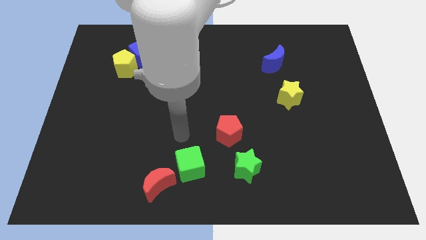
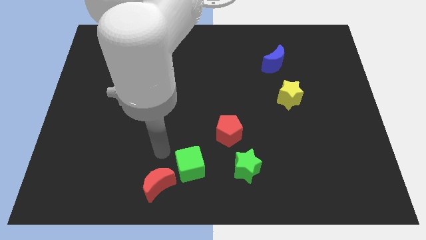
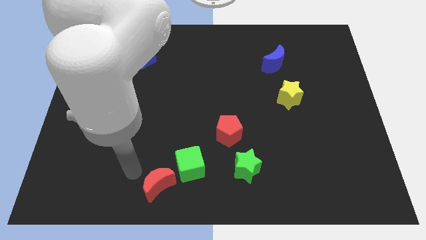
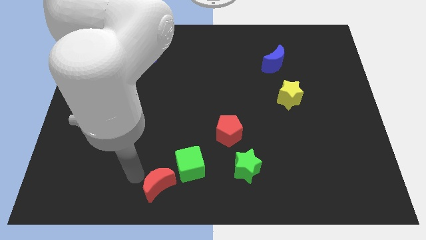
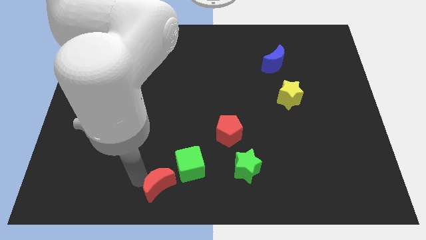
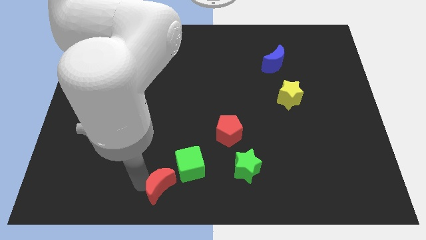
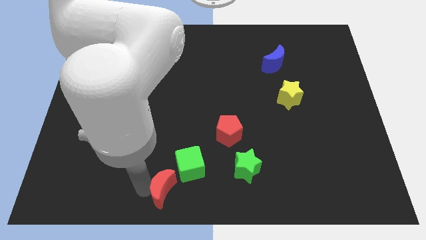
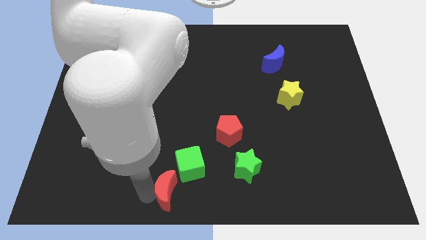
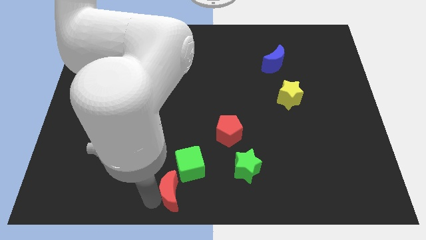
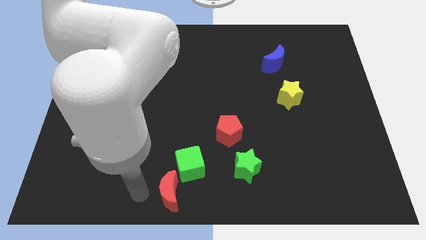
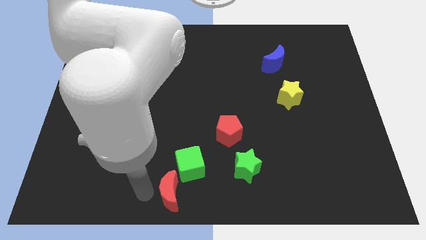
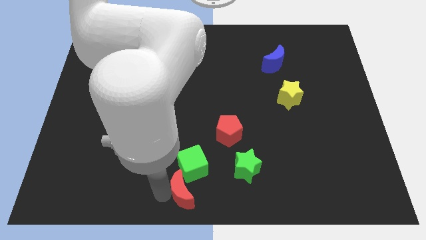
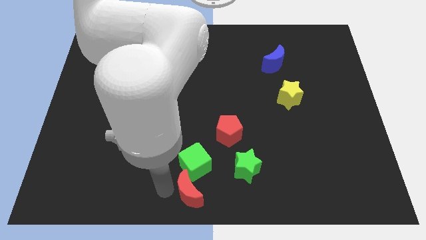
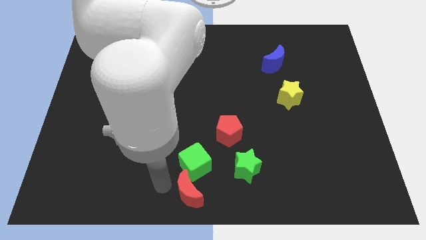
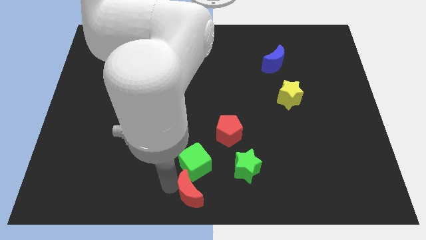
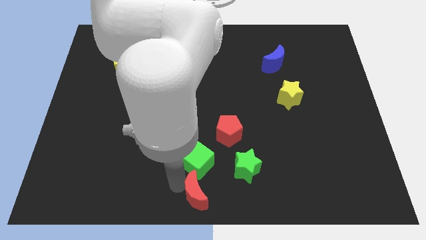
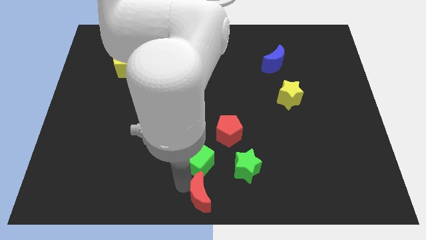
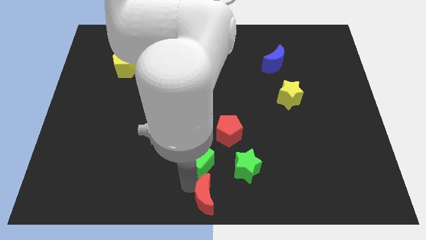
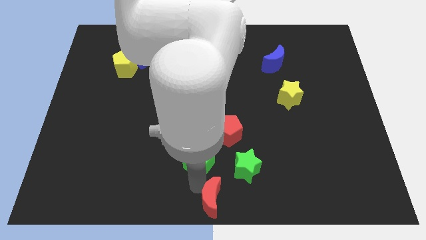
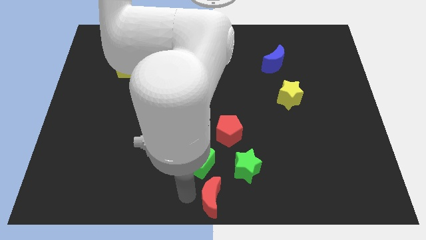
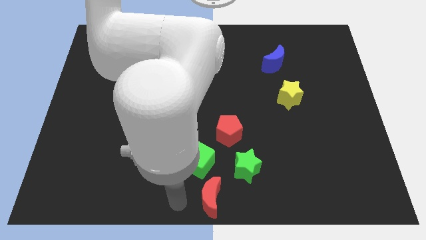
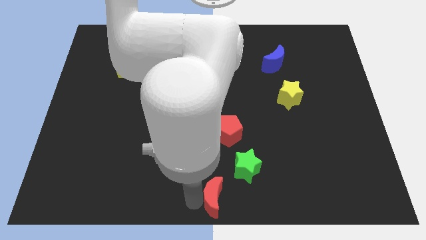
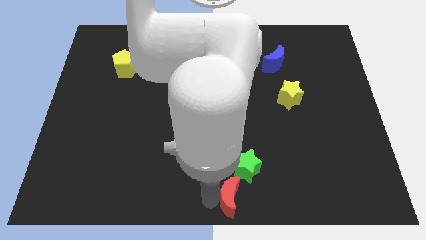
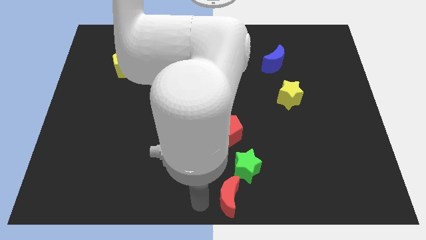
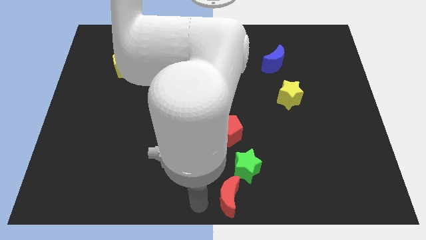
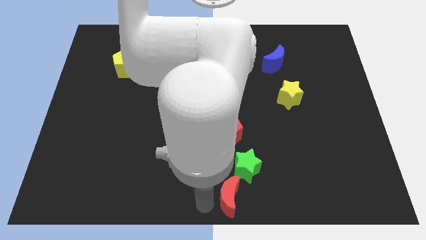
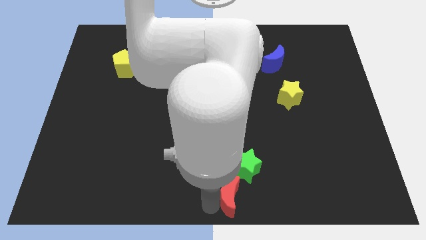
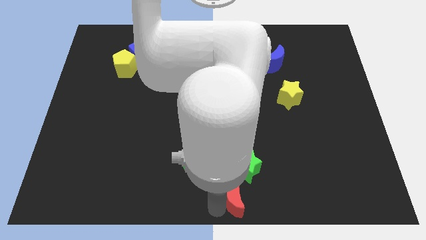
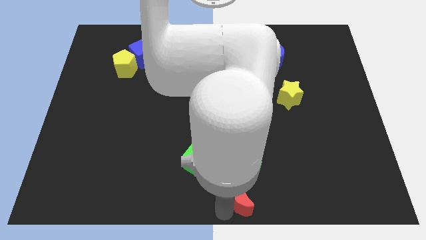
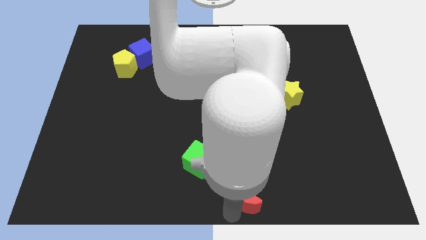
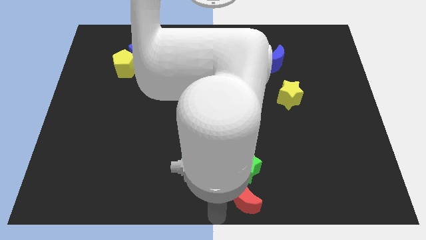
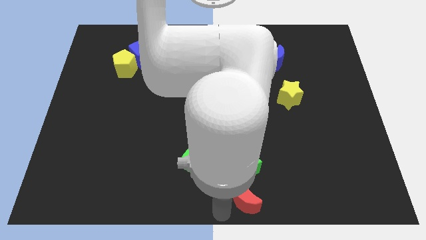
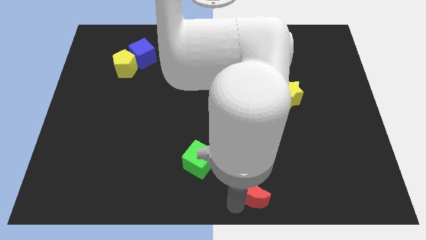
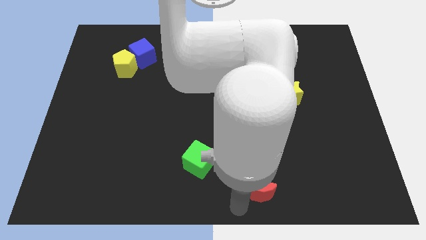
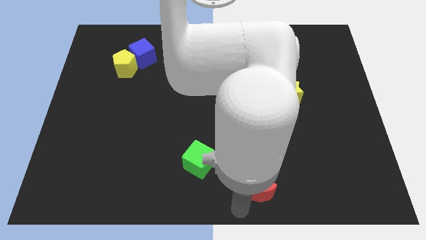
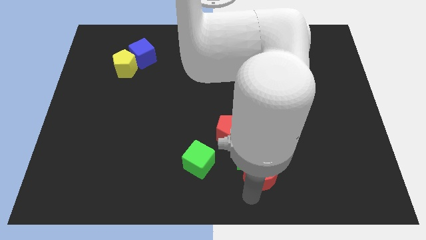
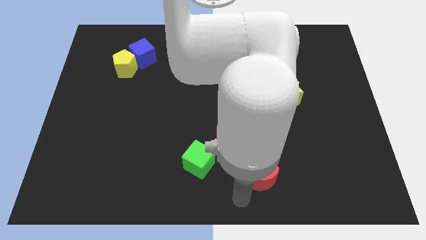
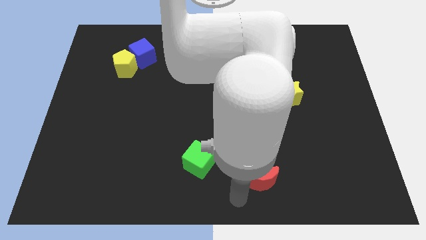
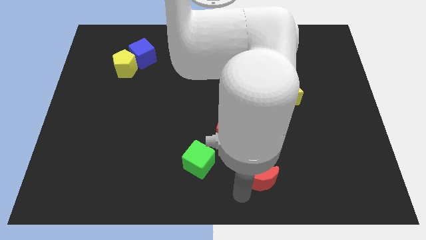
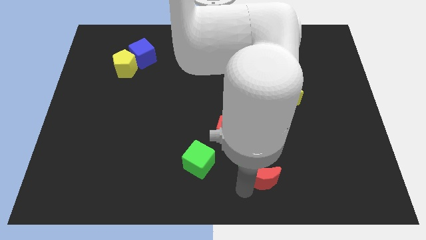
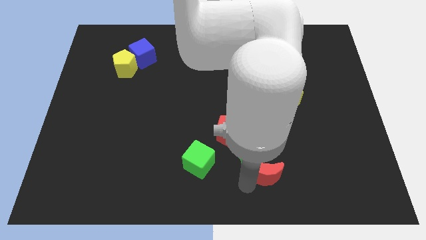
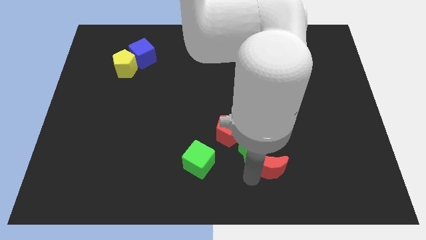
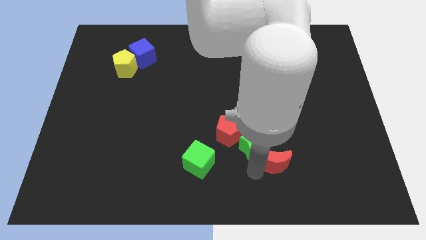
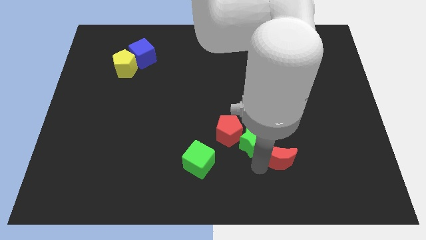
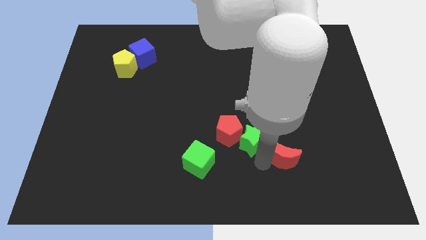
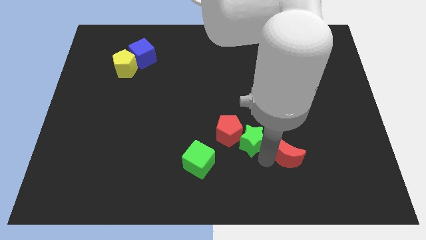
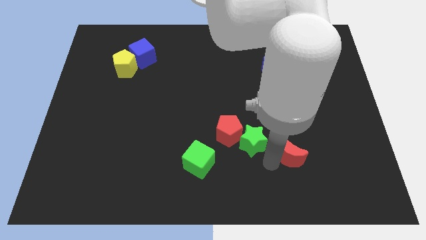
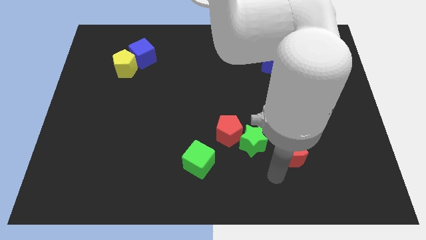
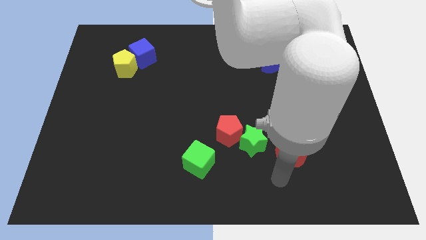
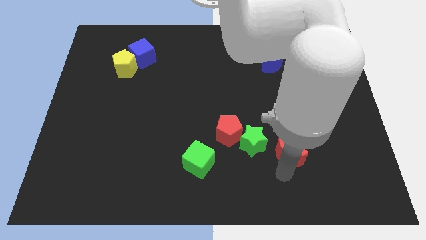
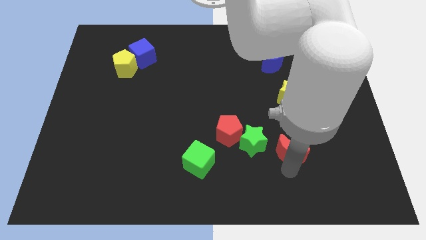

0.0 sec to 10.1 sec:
push the red moon to the bottom of the yellow star

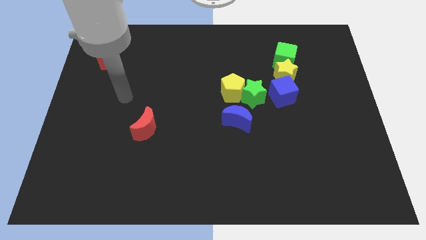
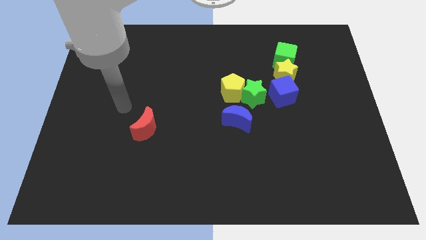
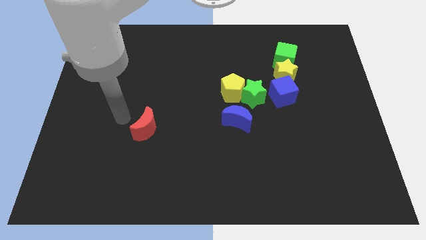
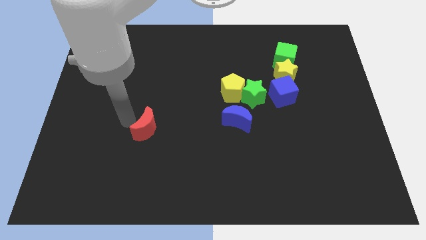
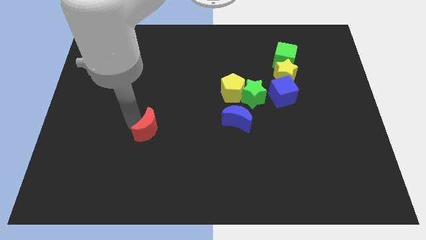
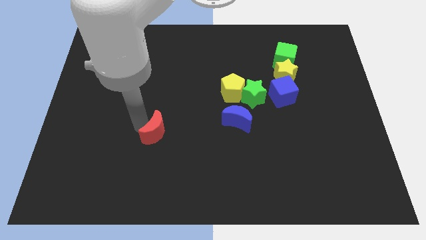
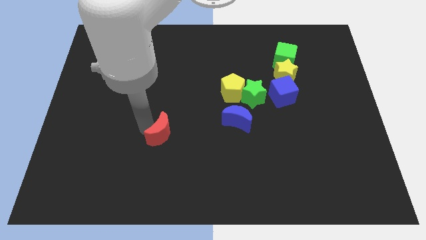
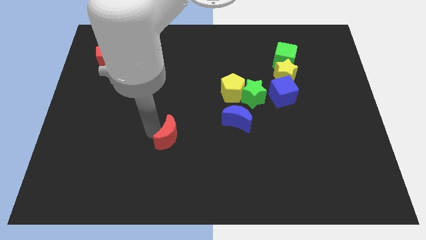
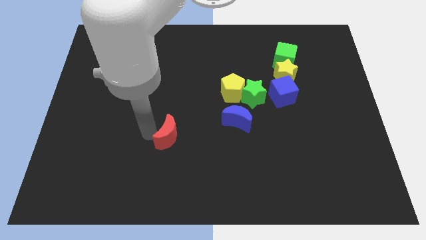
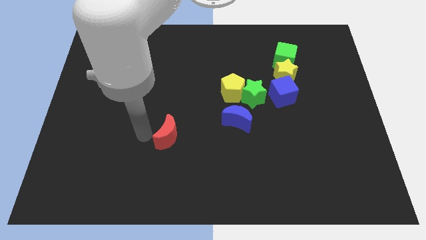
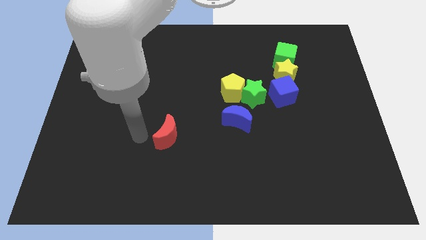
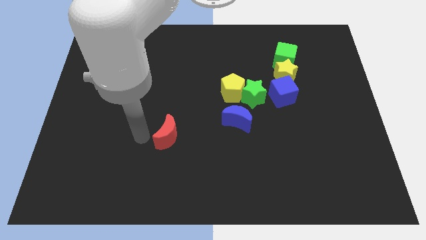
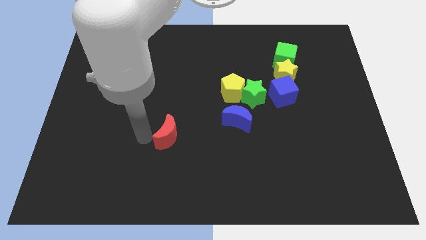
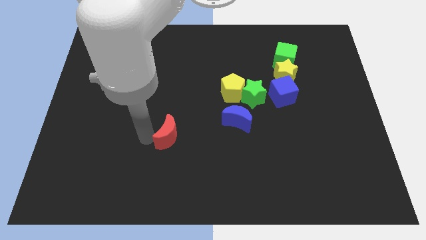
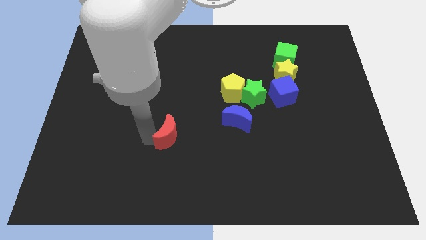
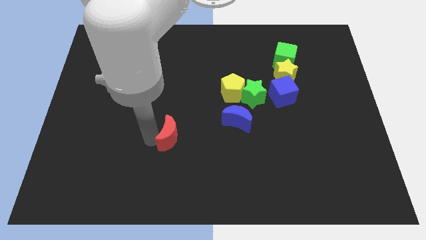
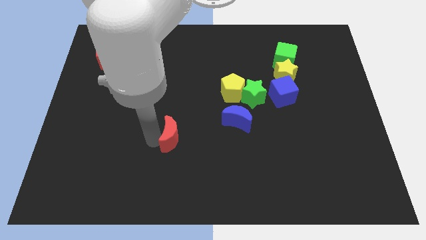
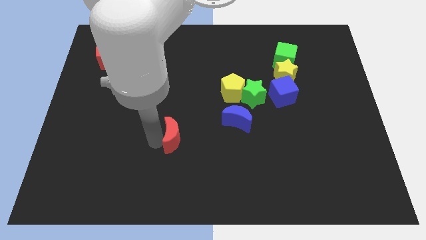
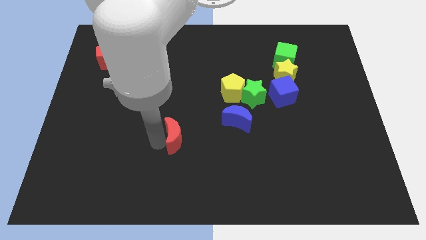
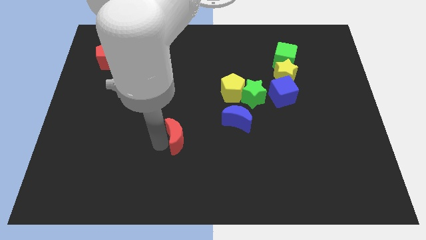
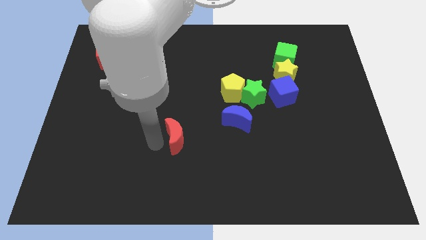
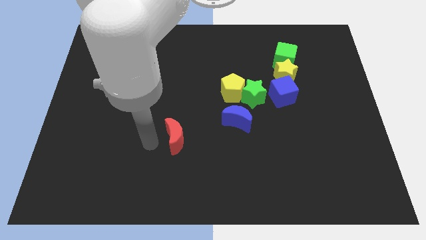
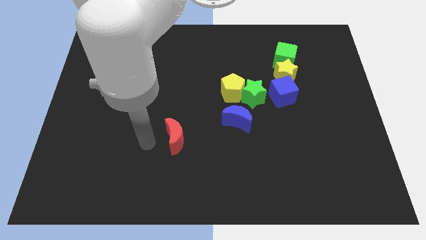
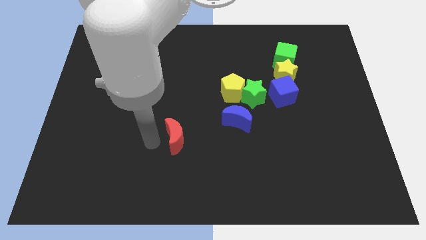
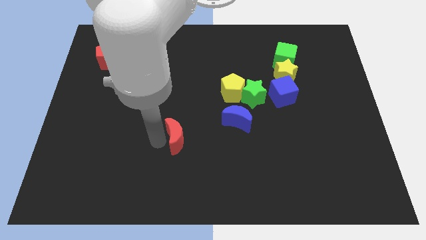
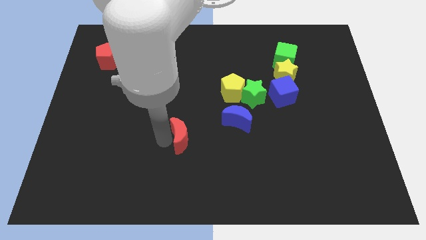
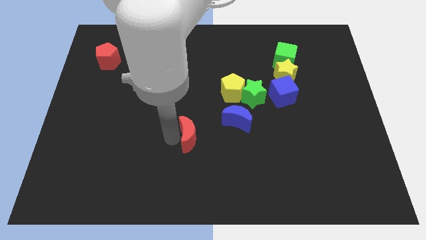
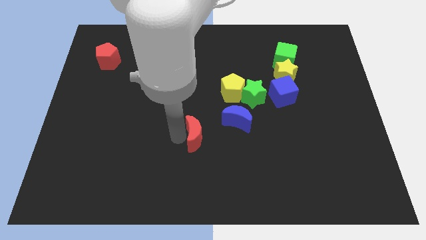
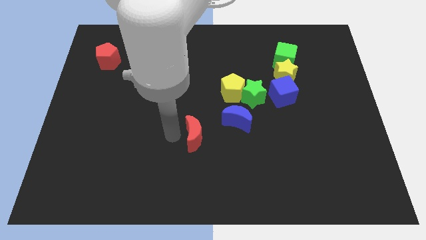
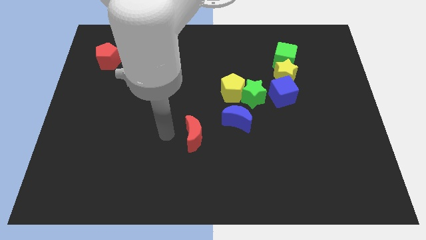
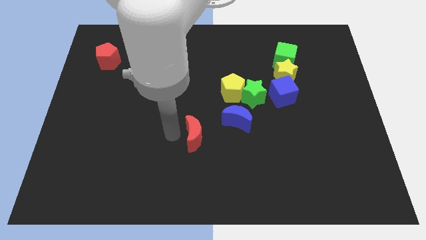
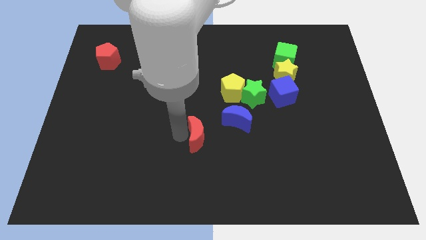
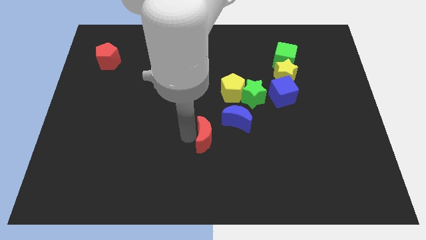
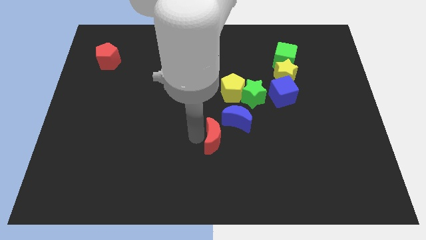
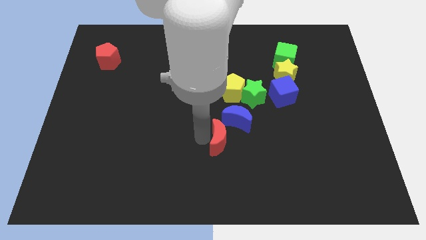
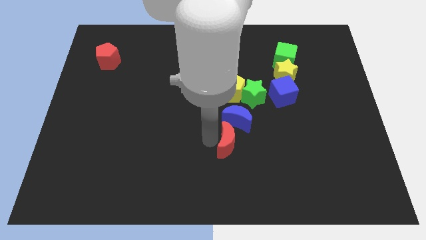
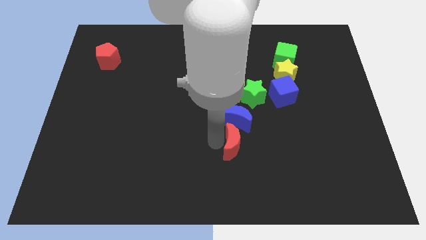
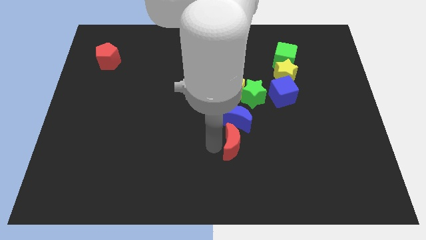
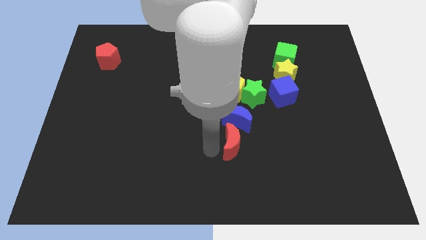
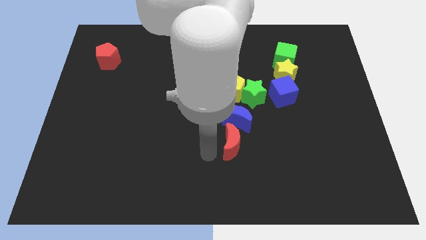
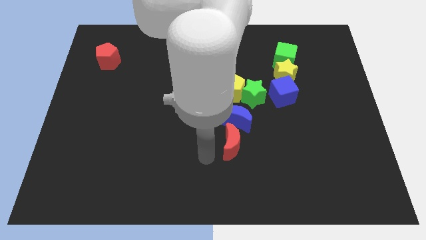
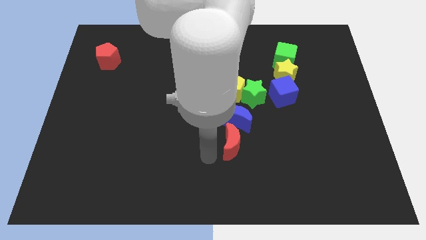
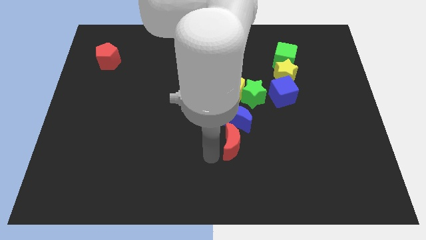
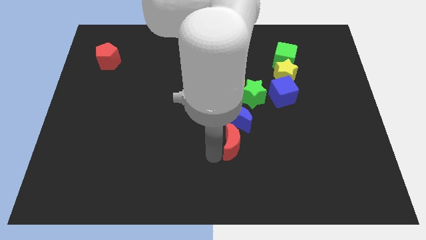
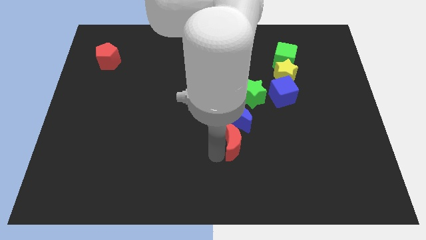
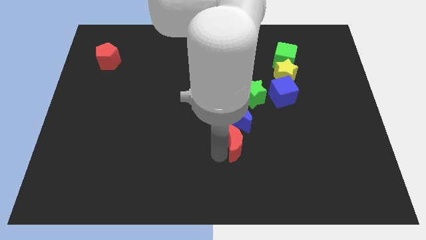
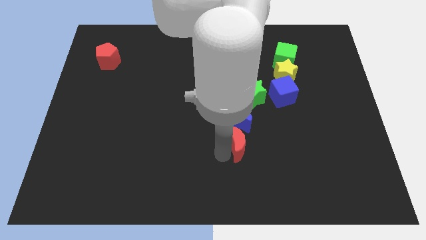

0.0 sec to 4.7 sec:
slide the red moon to the bottom right of the blue moon
